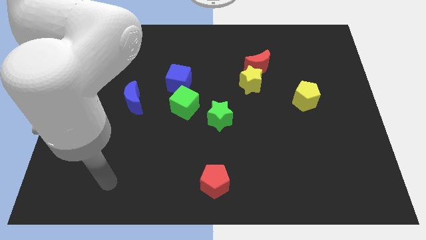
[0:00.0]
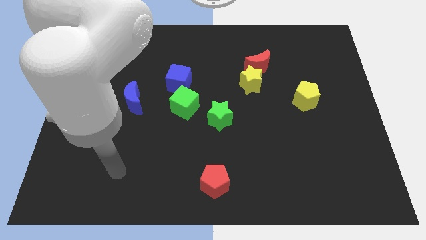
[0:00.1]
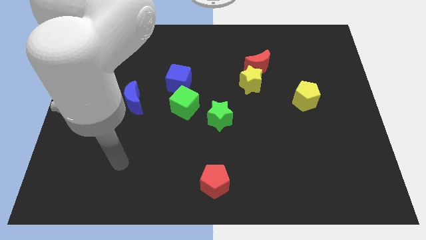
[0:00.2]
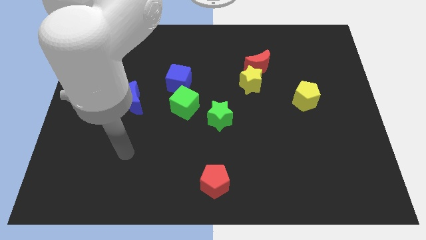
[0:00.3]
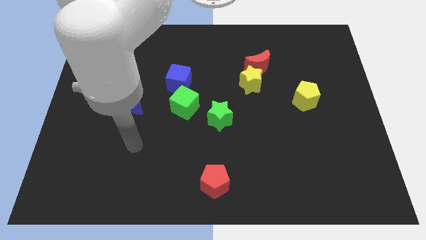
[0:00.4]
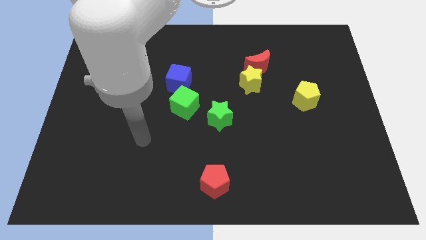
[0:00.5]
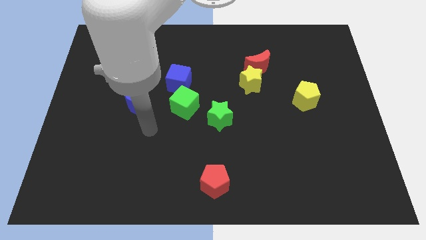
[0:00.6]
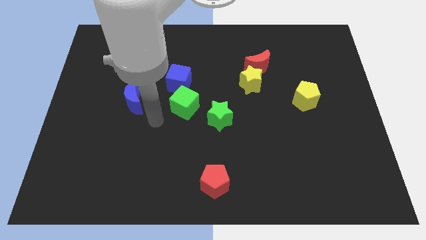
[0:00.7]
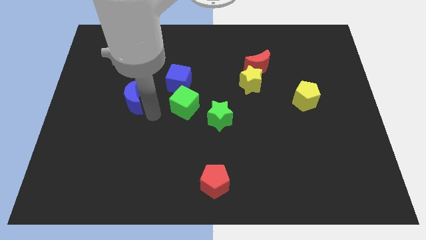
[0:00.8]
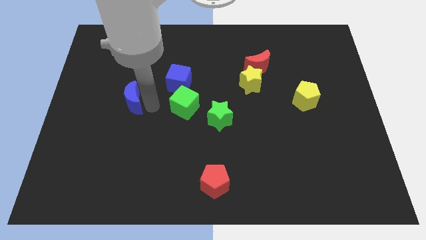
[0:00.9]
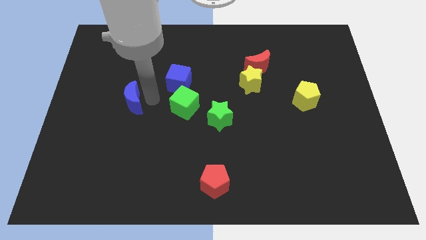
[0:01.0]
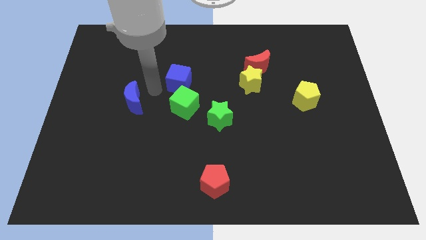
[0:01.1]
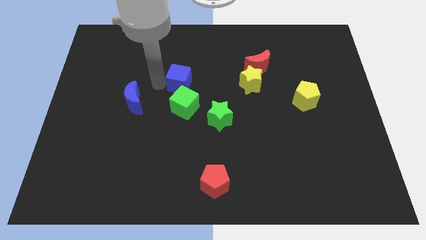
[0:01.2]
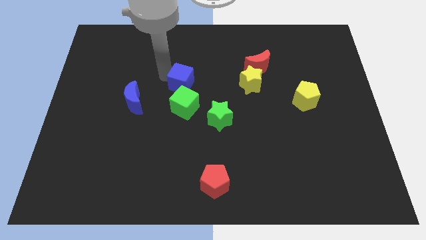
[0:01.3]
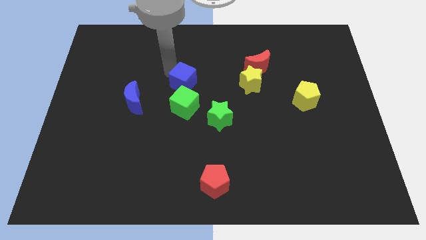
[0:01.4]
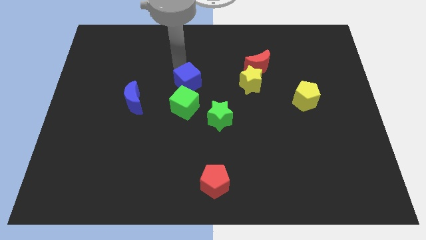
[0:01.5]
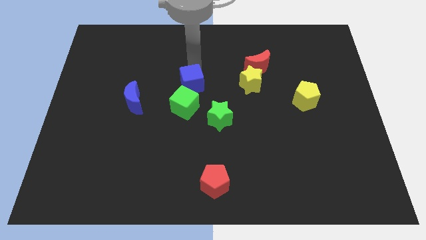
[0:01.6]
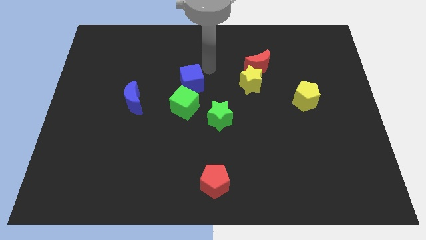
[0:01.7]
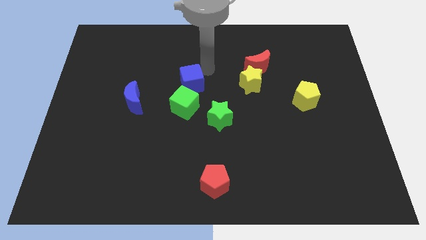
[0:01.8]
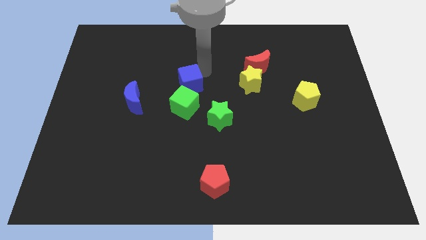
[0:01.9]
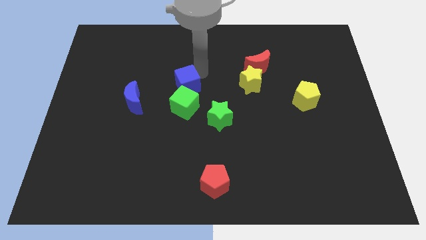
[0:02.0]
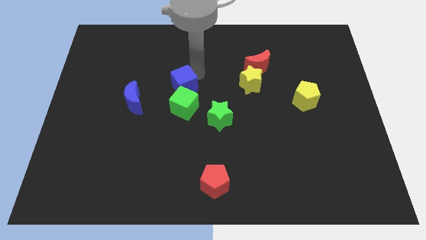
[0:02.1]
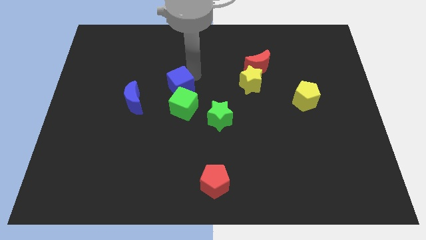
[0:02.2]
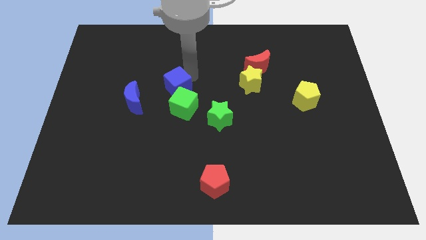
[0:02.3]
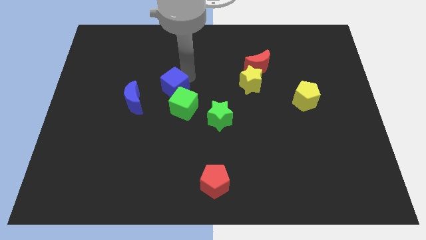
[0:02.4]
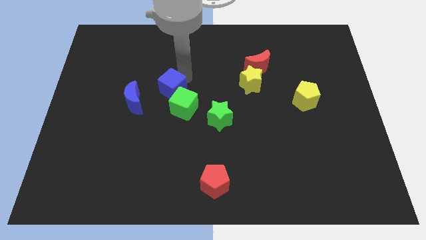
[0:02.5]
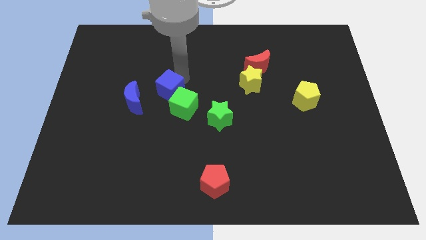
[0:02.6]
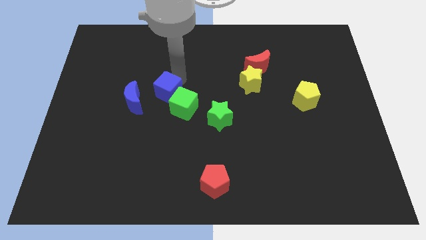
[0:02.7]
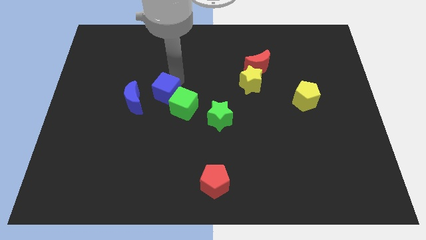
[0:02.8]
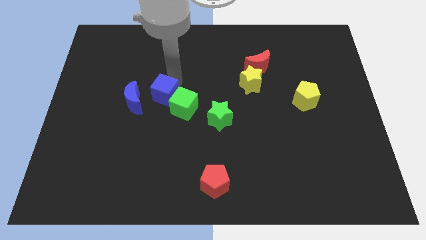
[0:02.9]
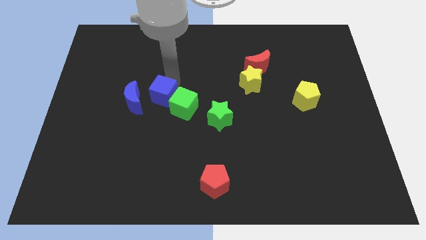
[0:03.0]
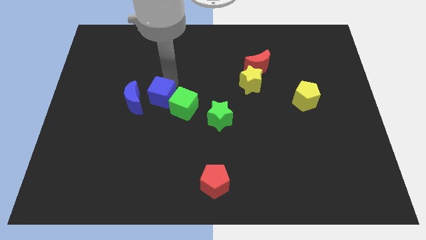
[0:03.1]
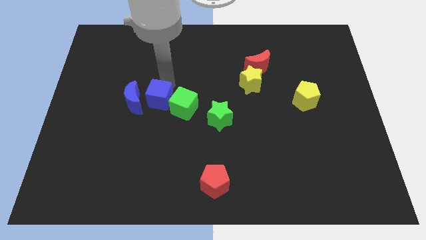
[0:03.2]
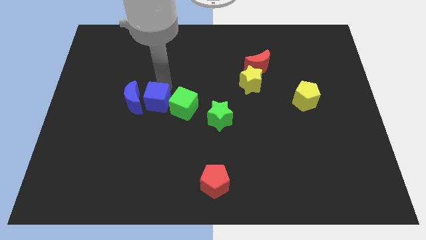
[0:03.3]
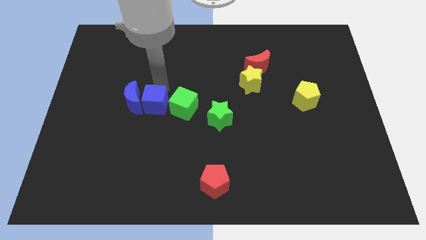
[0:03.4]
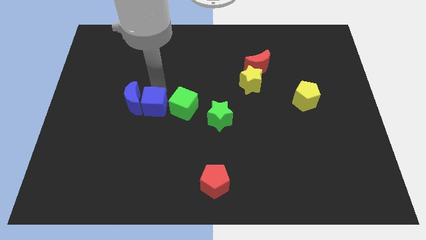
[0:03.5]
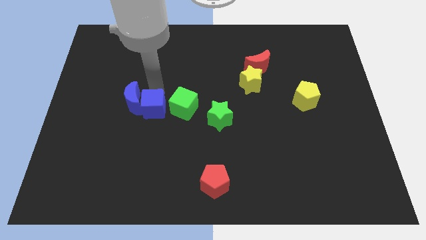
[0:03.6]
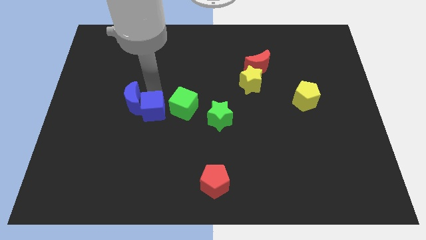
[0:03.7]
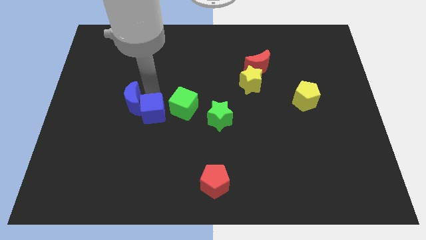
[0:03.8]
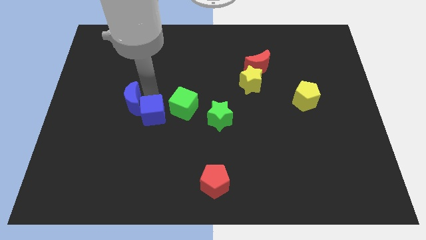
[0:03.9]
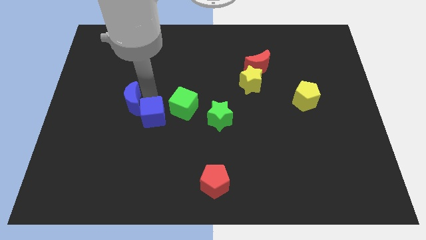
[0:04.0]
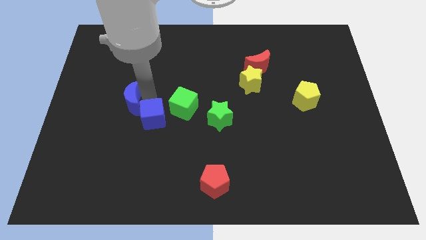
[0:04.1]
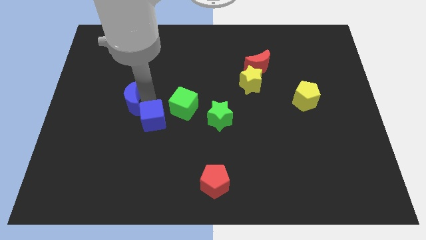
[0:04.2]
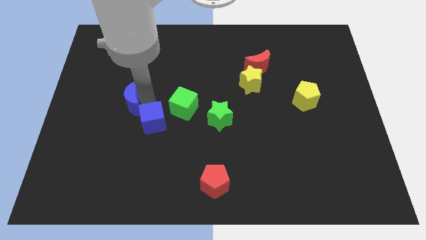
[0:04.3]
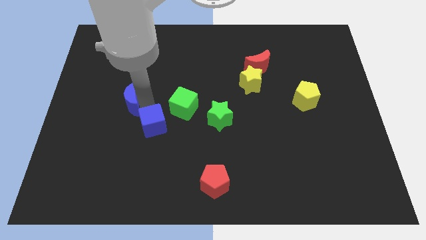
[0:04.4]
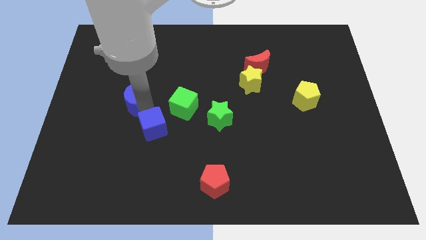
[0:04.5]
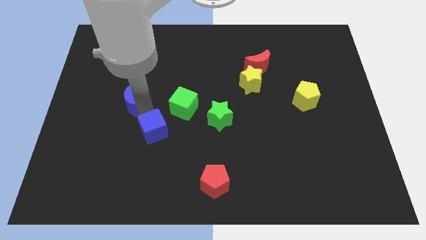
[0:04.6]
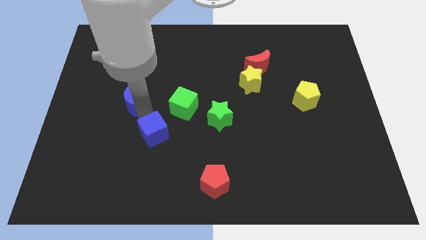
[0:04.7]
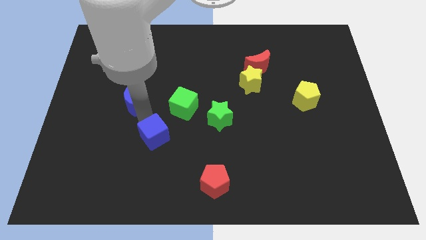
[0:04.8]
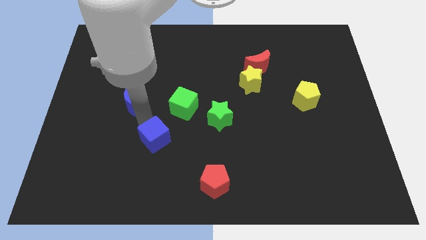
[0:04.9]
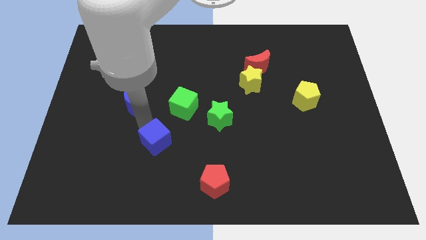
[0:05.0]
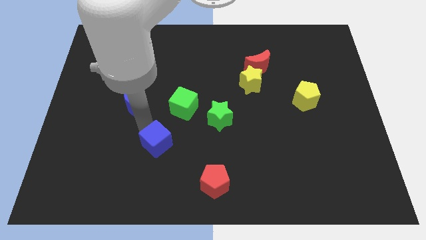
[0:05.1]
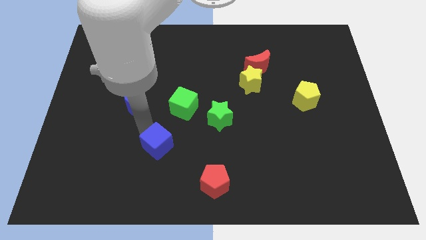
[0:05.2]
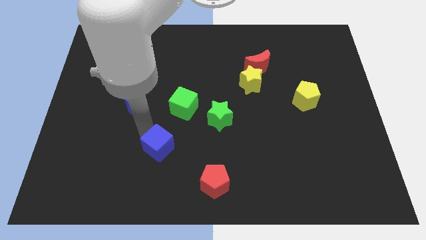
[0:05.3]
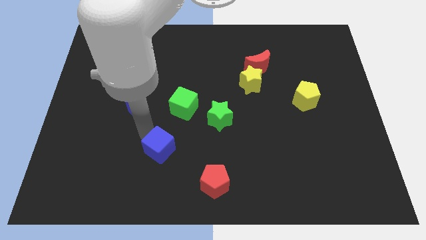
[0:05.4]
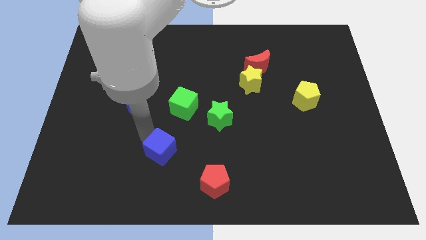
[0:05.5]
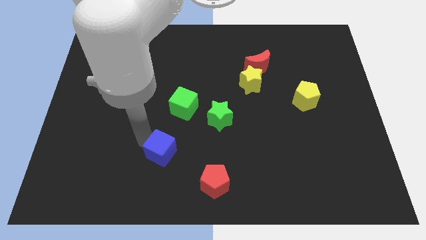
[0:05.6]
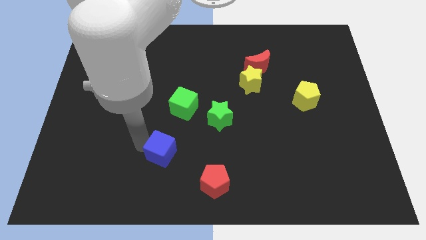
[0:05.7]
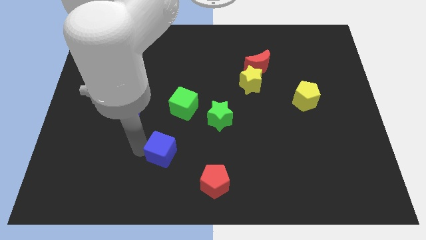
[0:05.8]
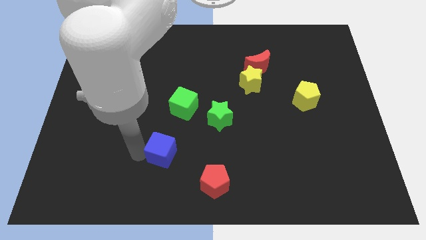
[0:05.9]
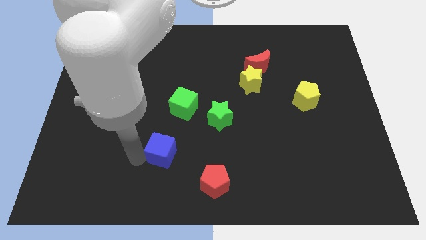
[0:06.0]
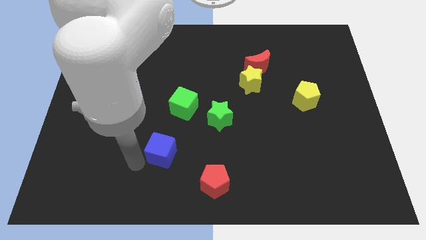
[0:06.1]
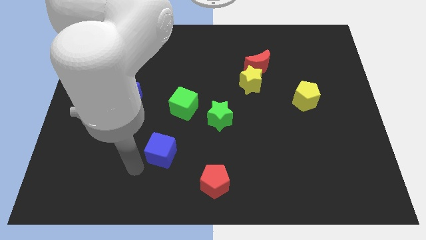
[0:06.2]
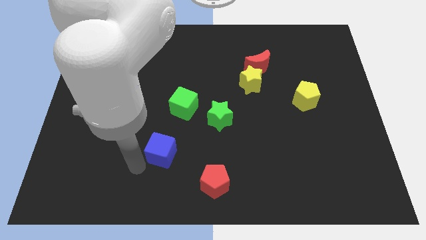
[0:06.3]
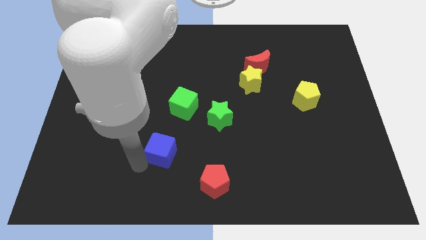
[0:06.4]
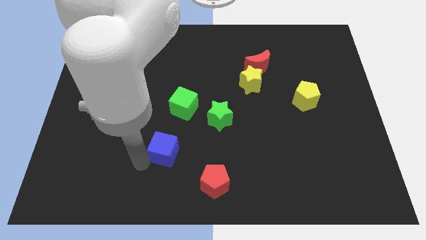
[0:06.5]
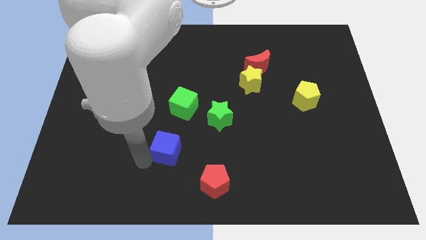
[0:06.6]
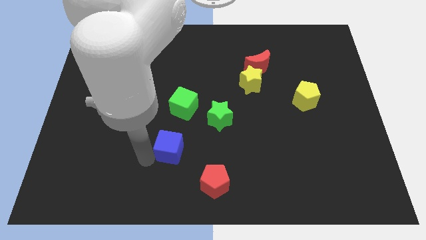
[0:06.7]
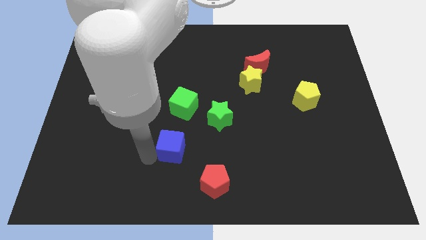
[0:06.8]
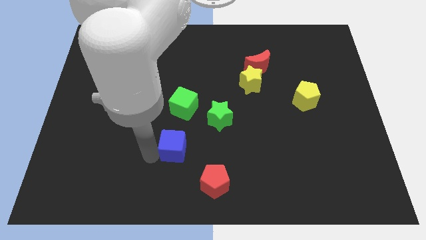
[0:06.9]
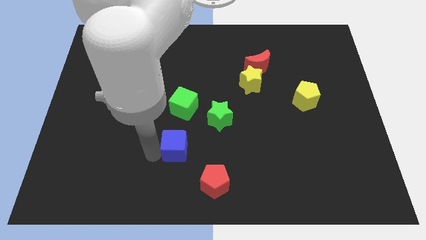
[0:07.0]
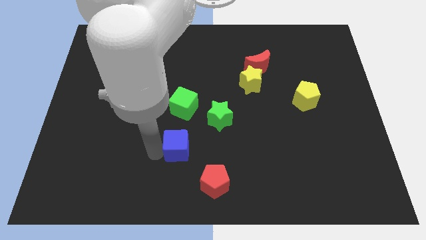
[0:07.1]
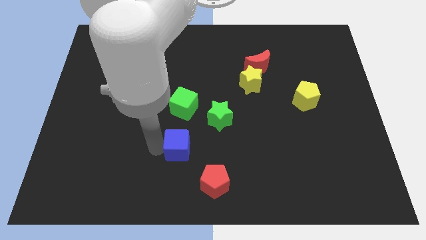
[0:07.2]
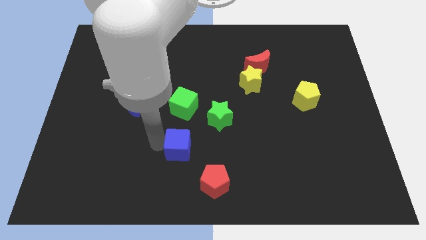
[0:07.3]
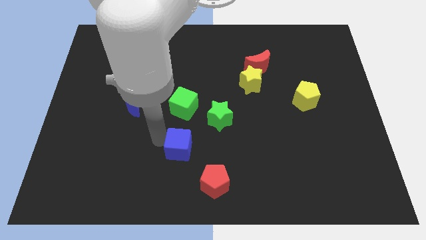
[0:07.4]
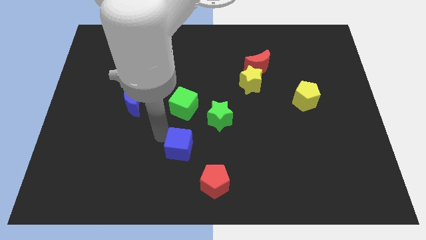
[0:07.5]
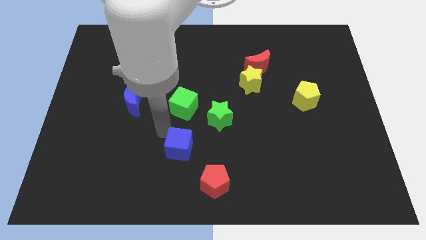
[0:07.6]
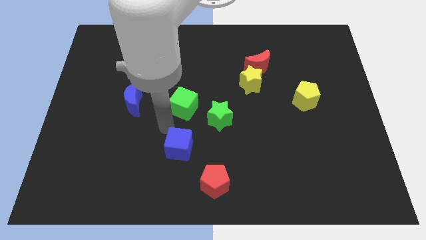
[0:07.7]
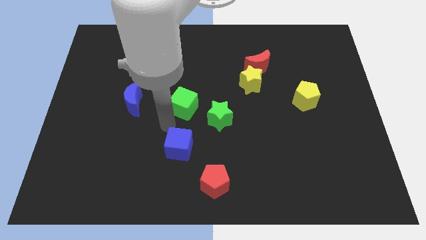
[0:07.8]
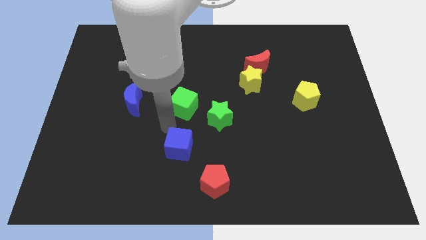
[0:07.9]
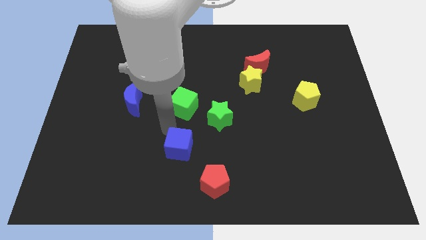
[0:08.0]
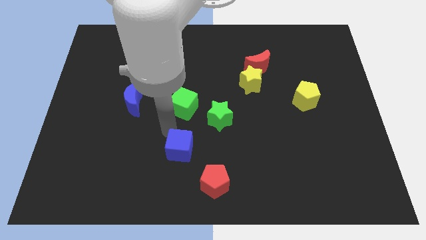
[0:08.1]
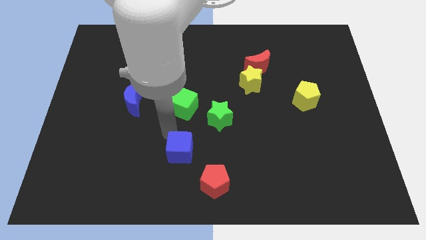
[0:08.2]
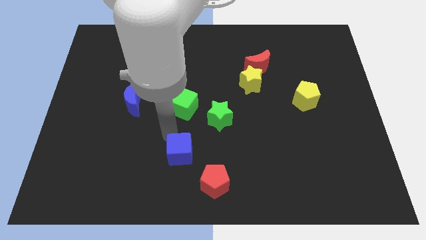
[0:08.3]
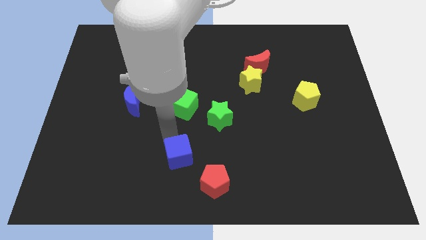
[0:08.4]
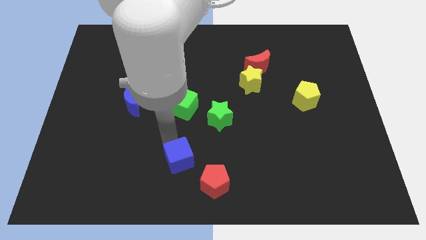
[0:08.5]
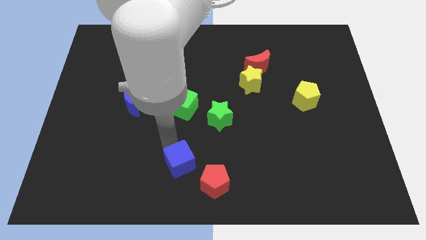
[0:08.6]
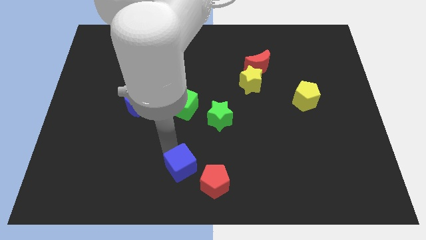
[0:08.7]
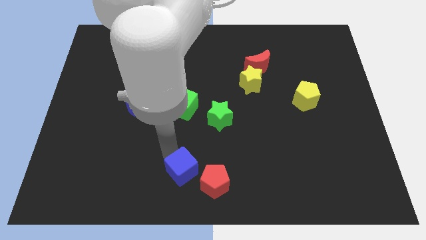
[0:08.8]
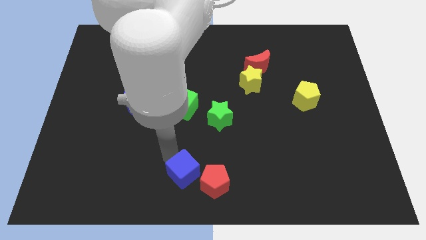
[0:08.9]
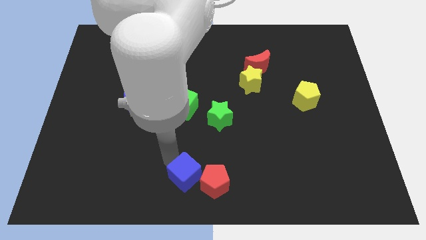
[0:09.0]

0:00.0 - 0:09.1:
slide the blue cube towards the red pentagon
